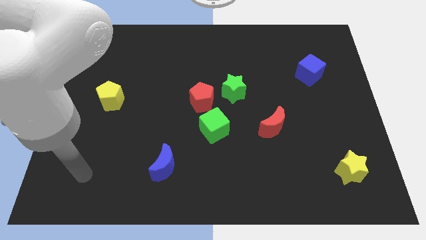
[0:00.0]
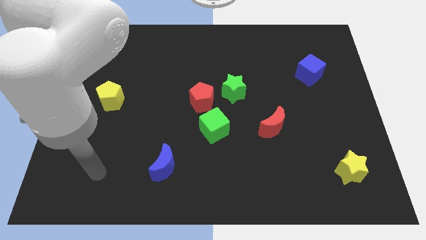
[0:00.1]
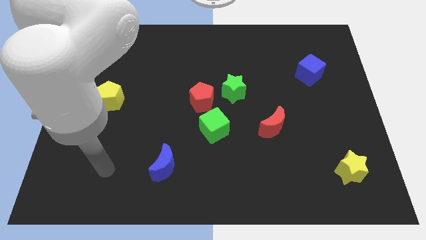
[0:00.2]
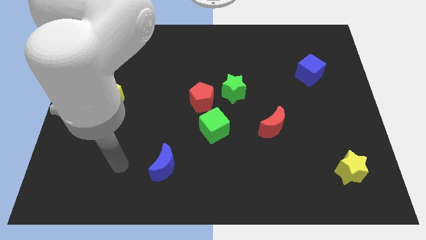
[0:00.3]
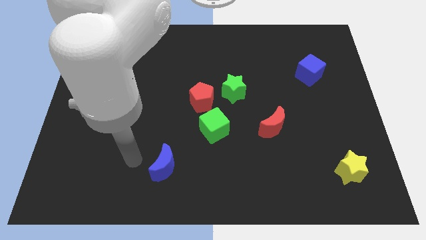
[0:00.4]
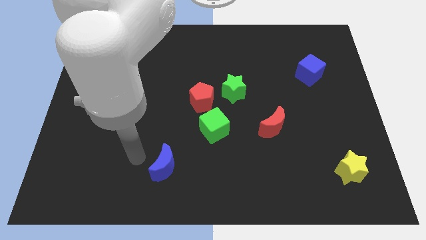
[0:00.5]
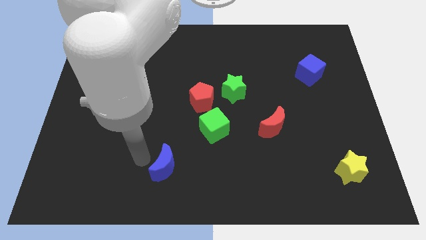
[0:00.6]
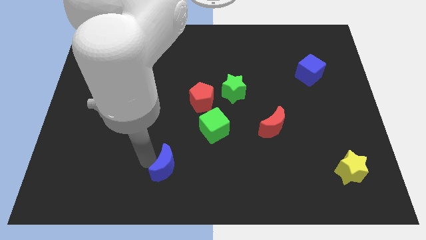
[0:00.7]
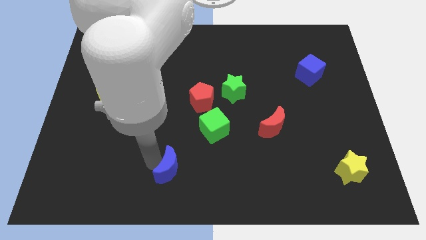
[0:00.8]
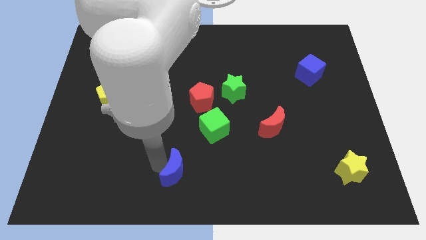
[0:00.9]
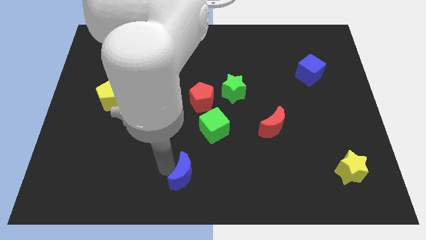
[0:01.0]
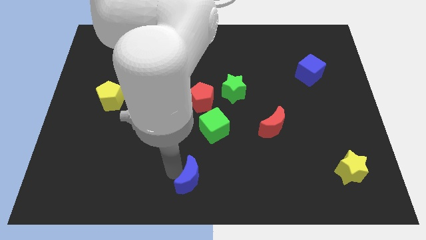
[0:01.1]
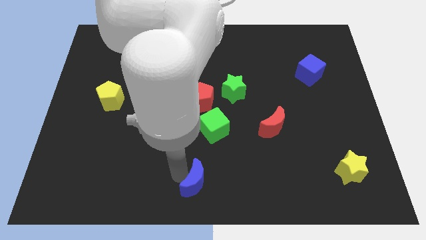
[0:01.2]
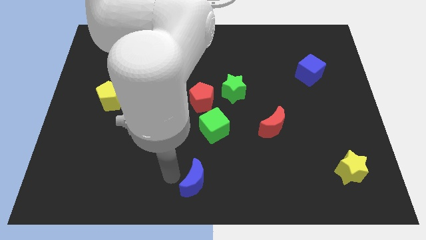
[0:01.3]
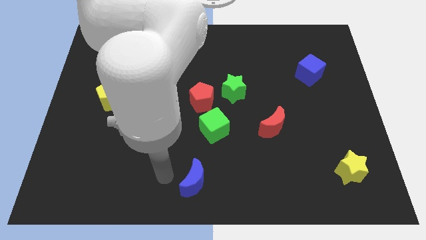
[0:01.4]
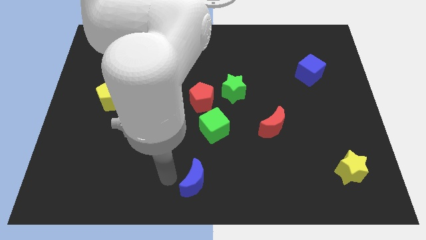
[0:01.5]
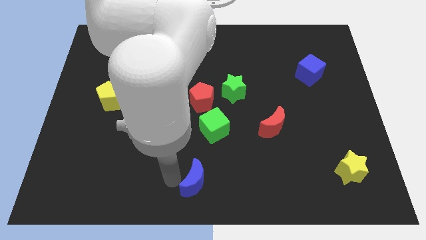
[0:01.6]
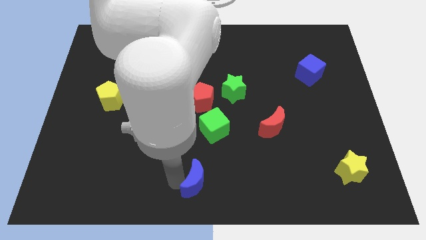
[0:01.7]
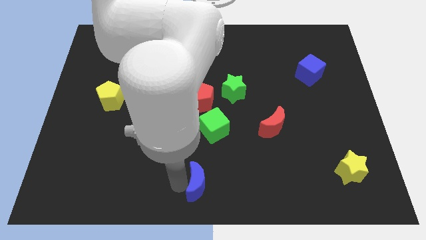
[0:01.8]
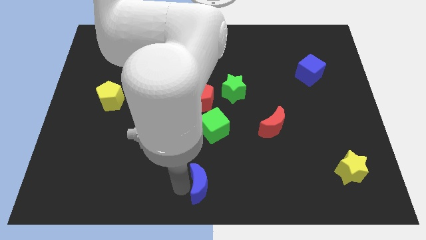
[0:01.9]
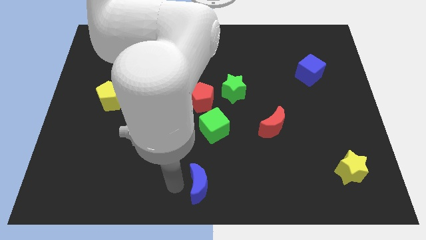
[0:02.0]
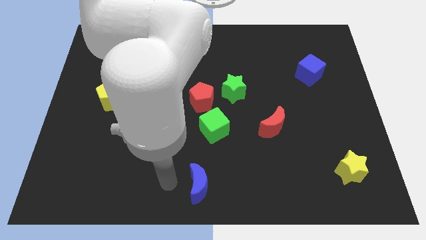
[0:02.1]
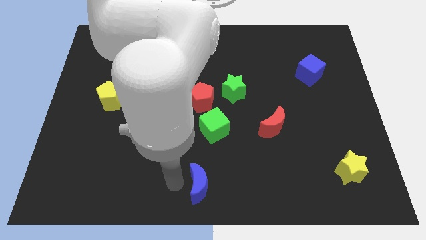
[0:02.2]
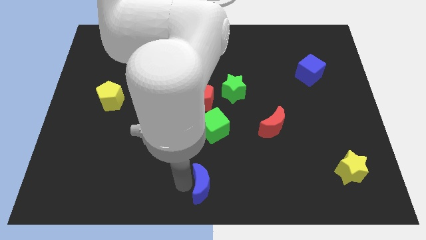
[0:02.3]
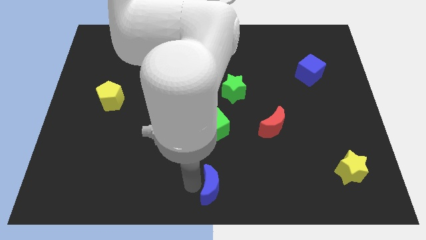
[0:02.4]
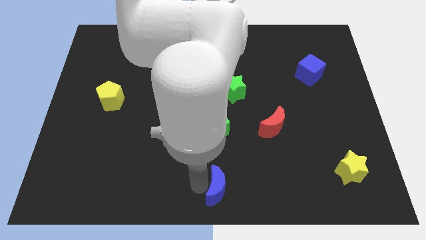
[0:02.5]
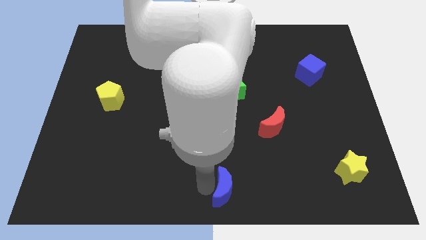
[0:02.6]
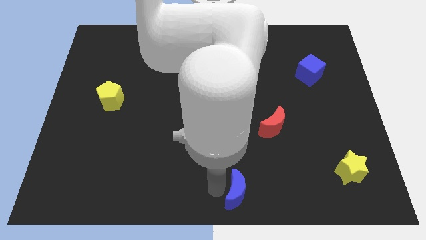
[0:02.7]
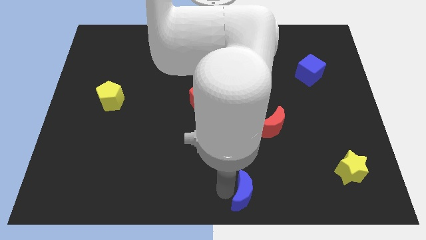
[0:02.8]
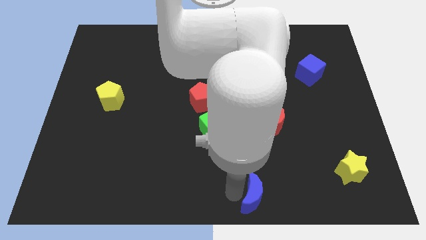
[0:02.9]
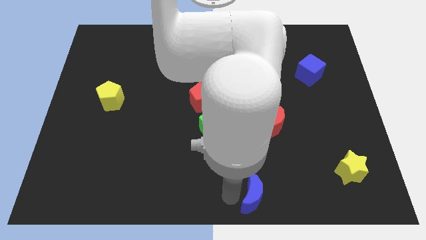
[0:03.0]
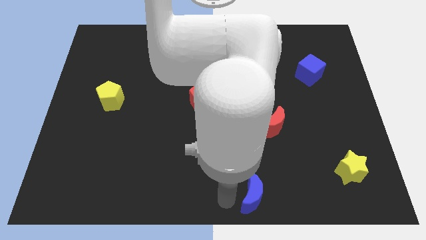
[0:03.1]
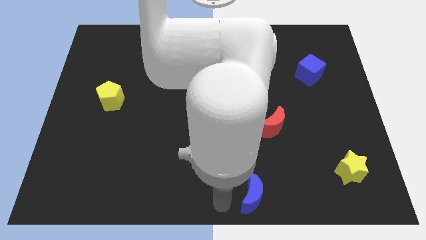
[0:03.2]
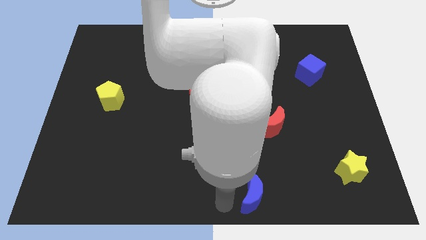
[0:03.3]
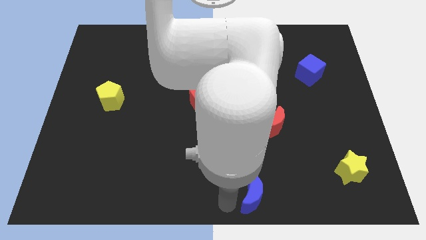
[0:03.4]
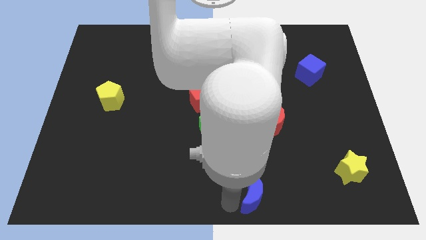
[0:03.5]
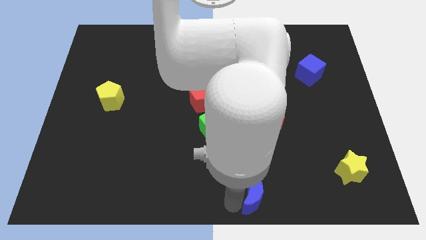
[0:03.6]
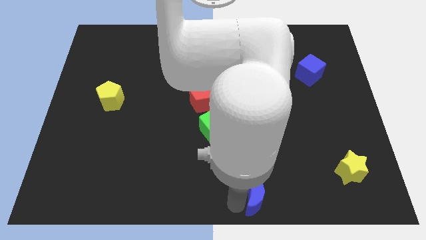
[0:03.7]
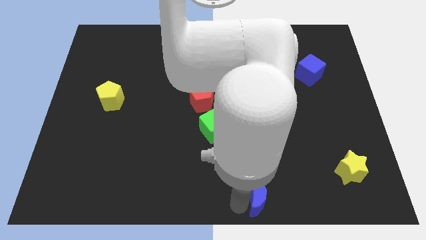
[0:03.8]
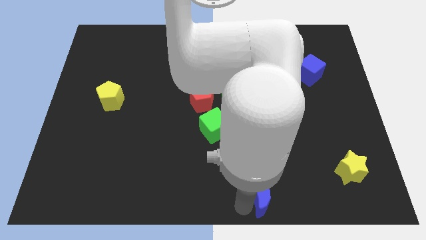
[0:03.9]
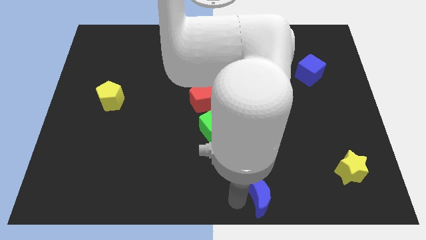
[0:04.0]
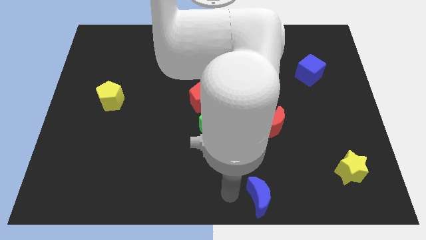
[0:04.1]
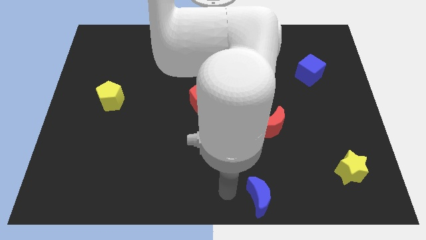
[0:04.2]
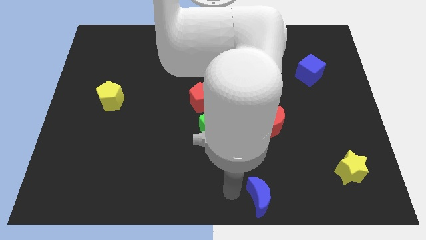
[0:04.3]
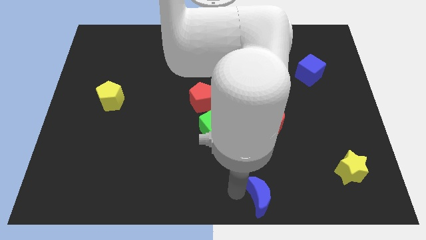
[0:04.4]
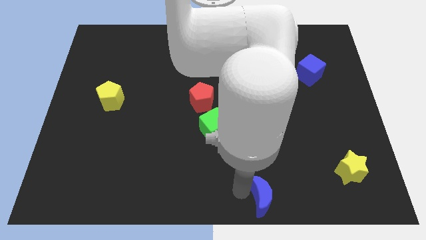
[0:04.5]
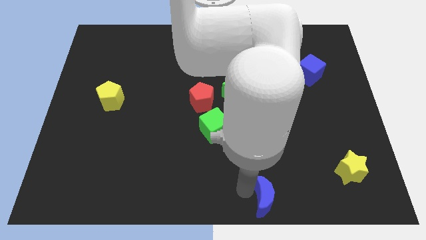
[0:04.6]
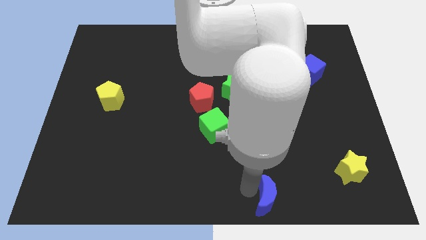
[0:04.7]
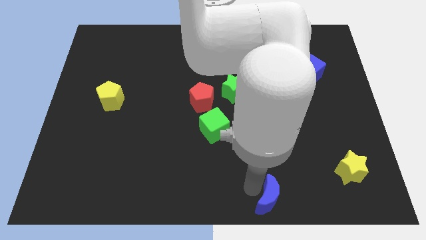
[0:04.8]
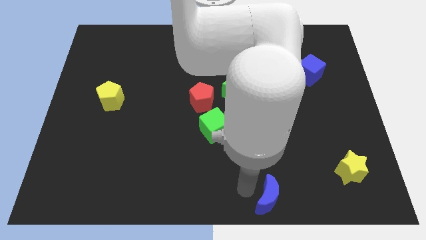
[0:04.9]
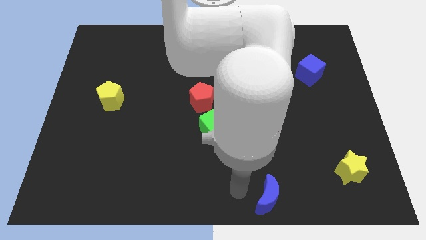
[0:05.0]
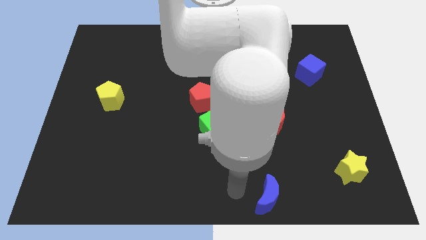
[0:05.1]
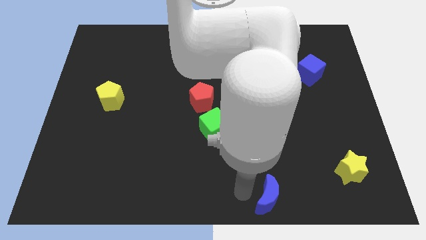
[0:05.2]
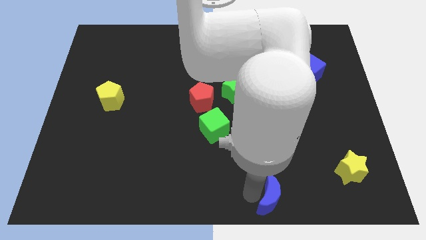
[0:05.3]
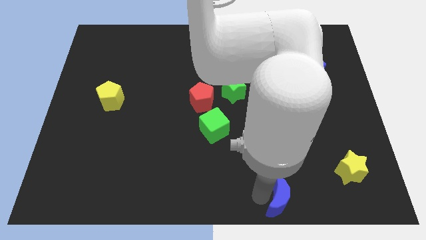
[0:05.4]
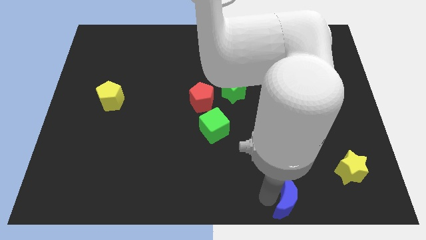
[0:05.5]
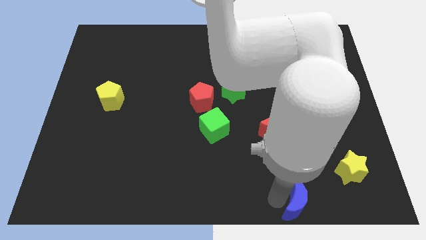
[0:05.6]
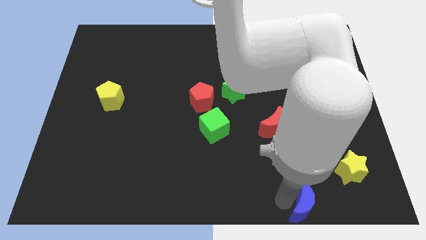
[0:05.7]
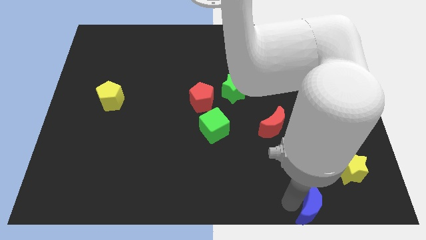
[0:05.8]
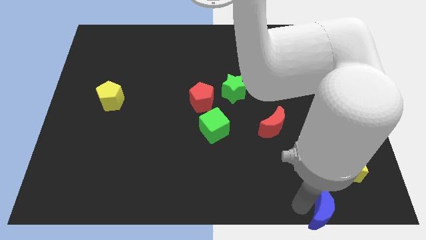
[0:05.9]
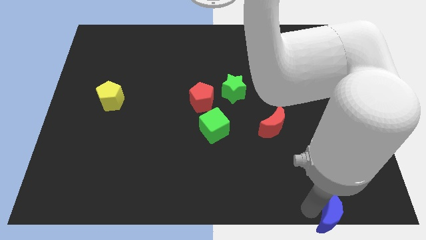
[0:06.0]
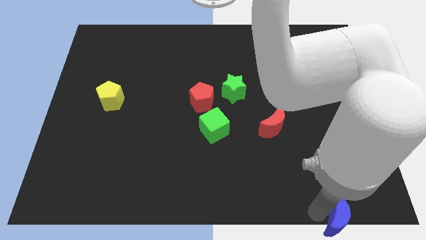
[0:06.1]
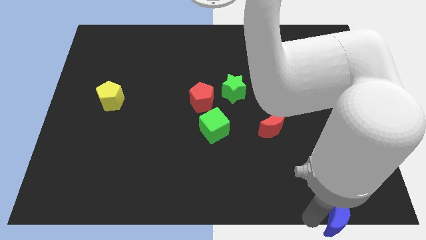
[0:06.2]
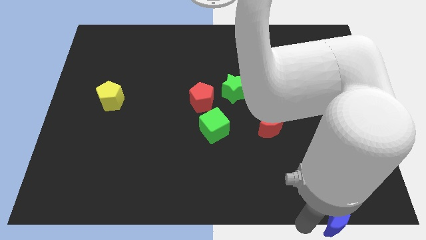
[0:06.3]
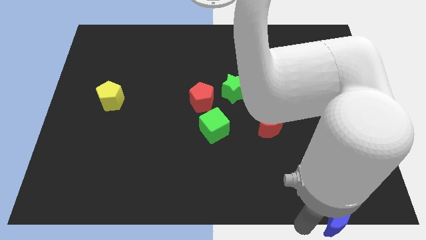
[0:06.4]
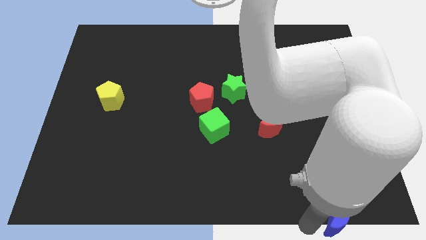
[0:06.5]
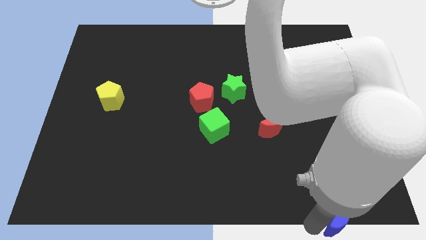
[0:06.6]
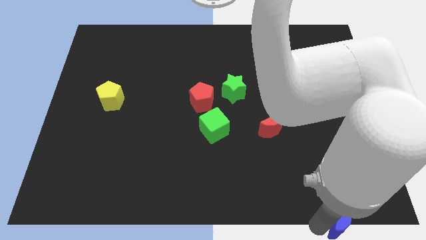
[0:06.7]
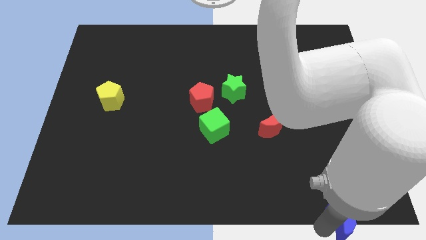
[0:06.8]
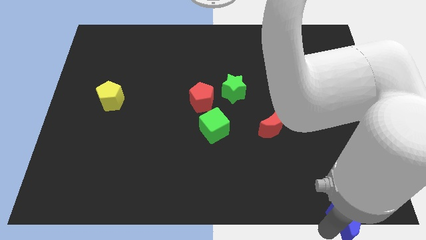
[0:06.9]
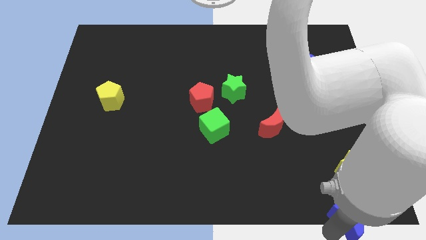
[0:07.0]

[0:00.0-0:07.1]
put the blue moon to the lower right corner

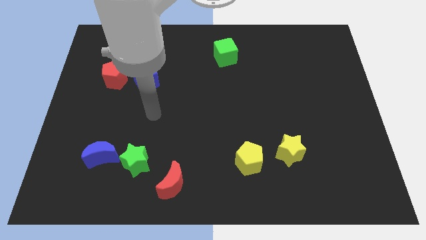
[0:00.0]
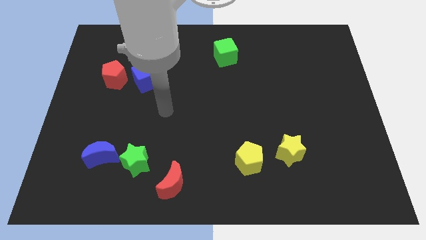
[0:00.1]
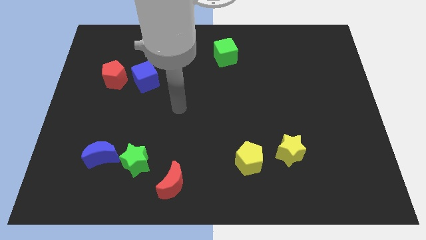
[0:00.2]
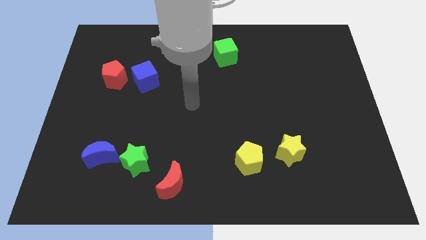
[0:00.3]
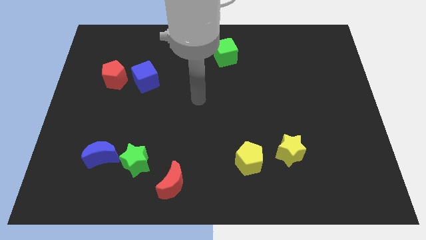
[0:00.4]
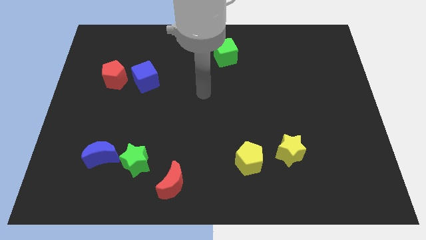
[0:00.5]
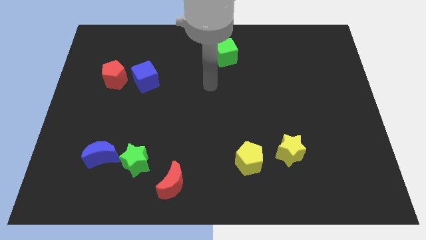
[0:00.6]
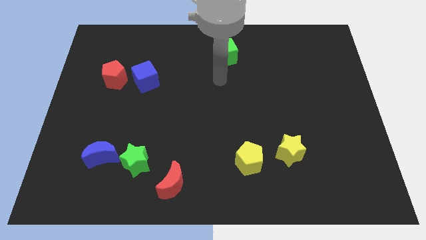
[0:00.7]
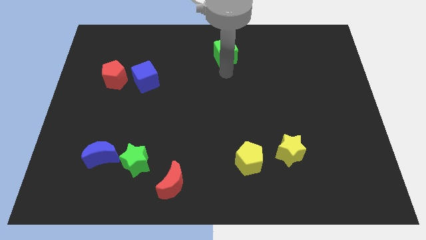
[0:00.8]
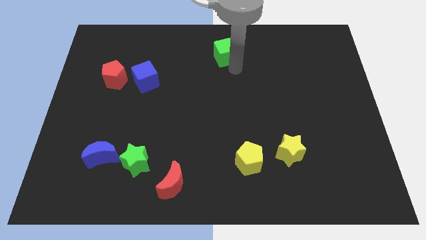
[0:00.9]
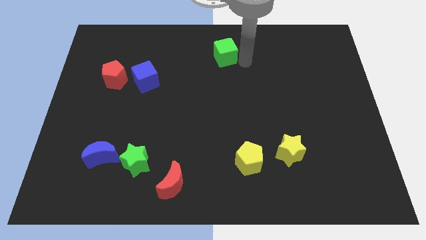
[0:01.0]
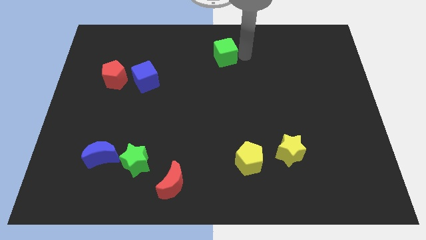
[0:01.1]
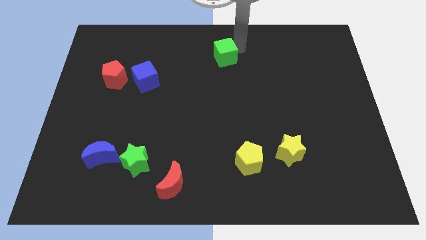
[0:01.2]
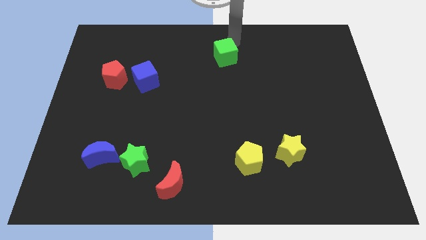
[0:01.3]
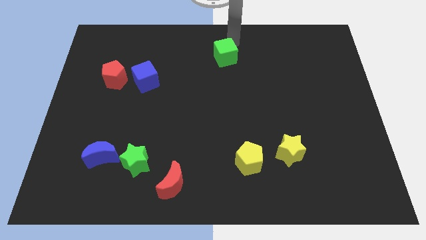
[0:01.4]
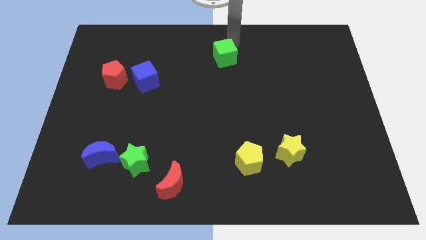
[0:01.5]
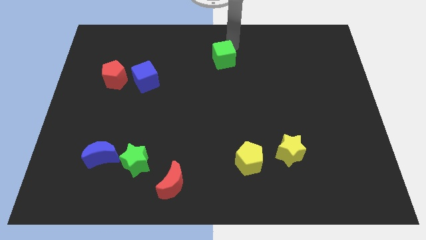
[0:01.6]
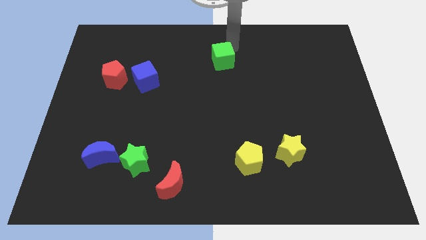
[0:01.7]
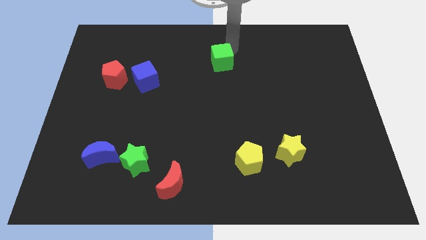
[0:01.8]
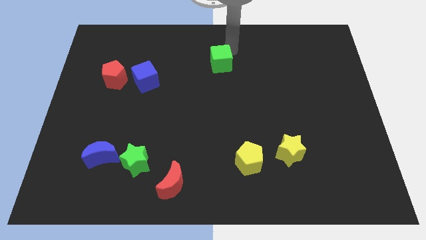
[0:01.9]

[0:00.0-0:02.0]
push the green cube to the center of the board
